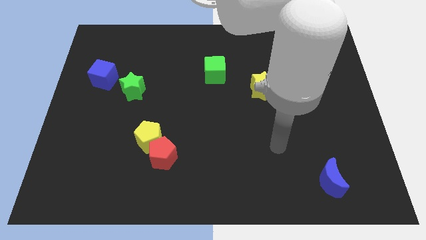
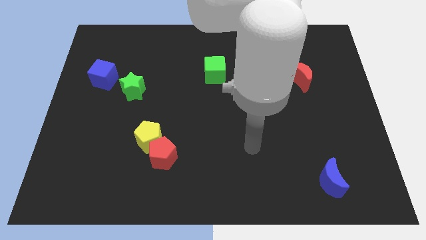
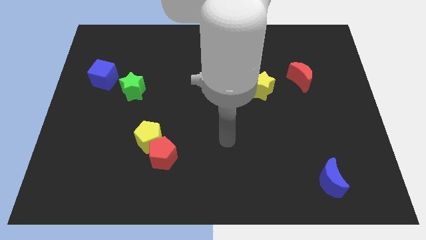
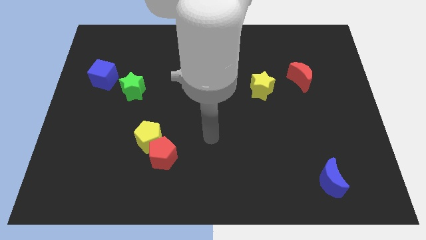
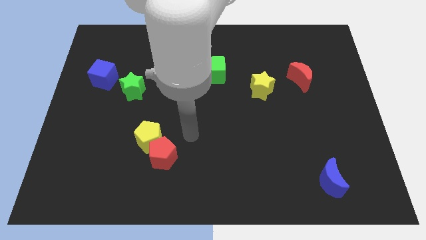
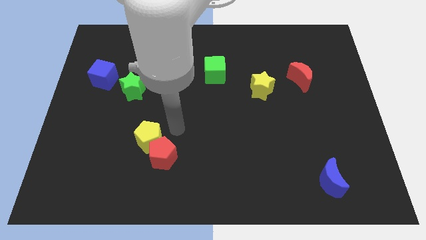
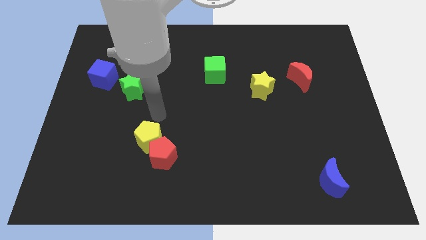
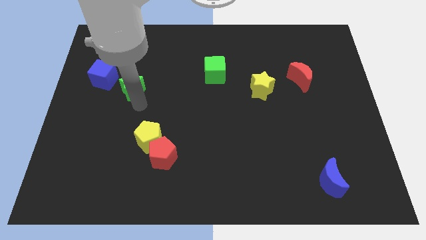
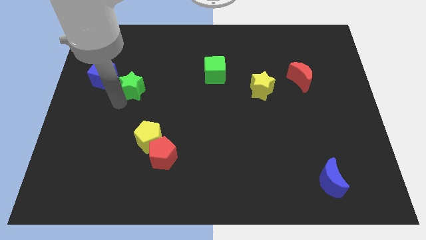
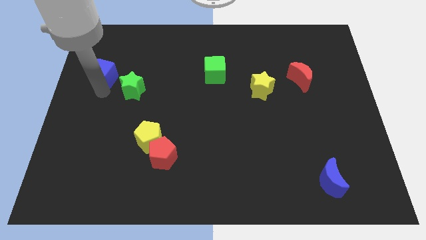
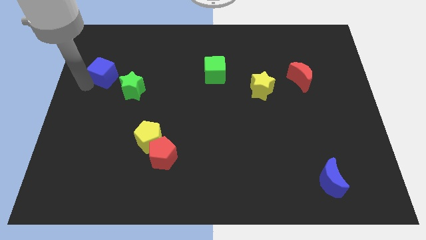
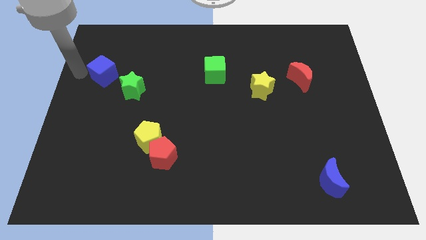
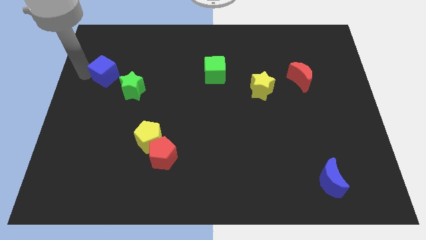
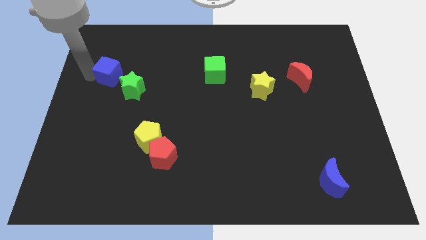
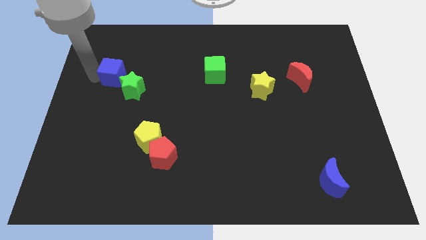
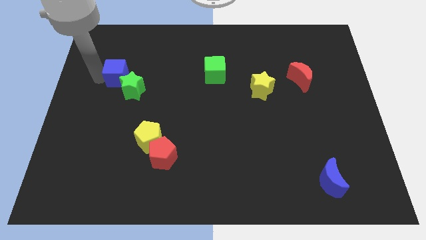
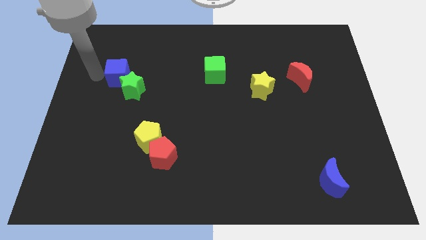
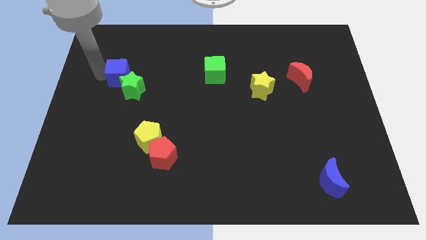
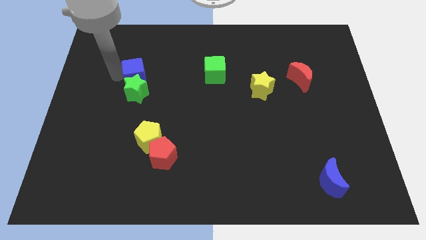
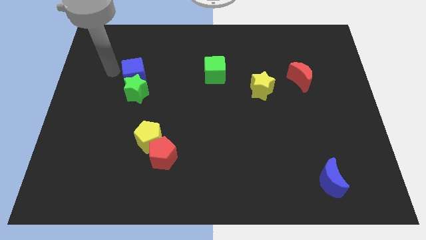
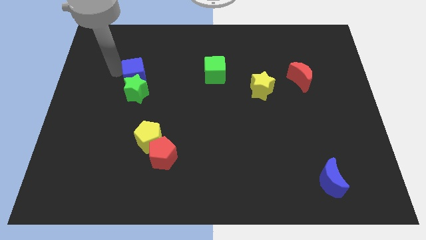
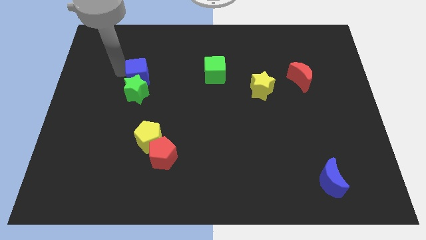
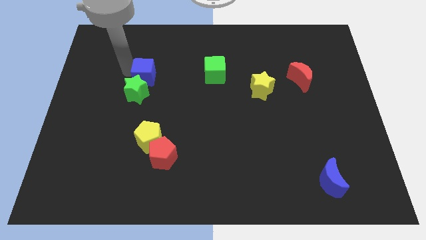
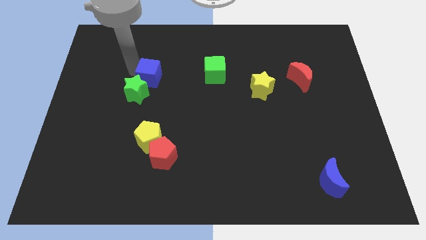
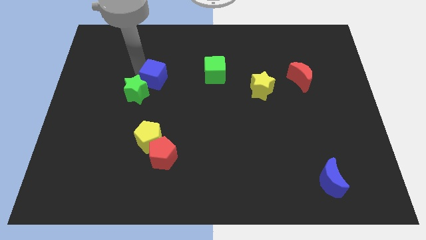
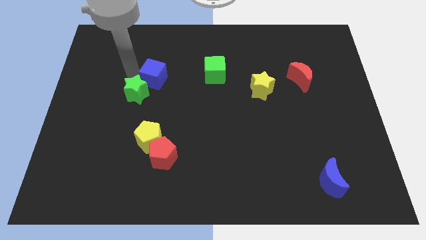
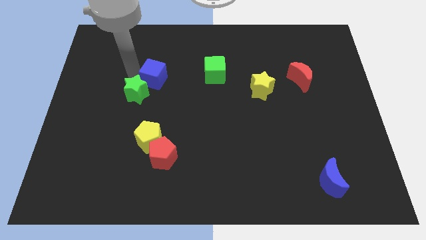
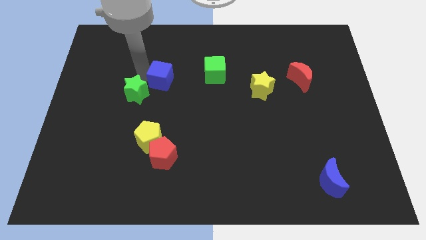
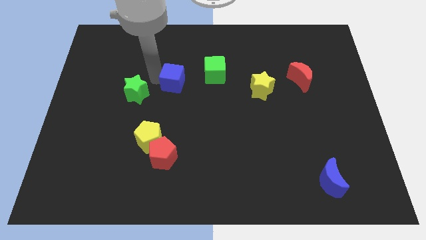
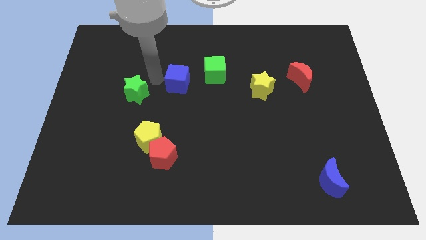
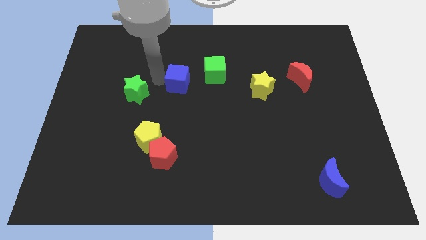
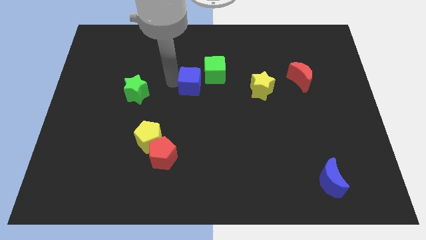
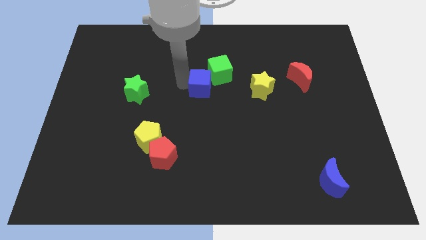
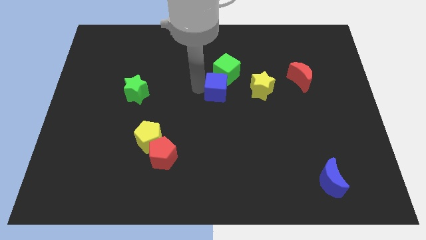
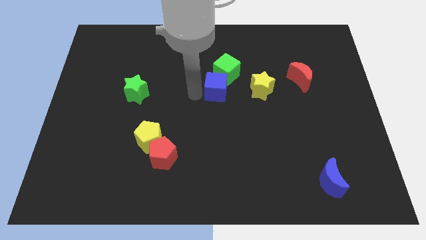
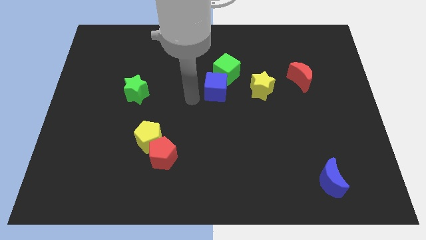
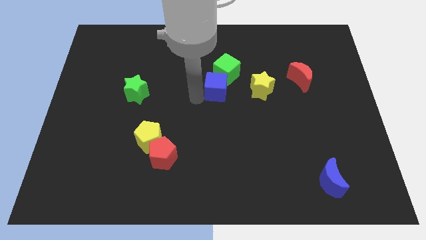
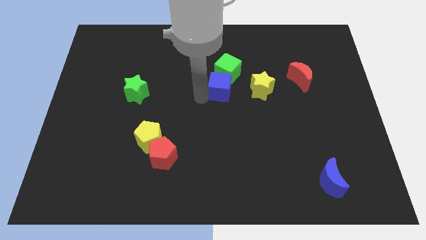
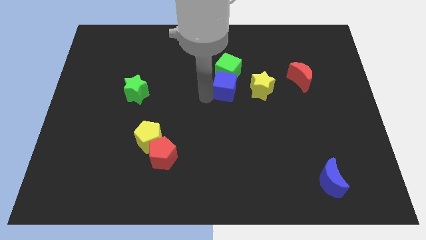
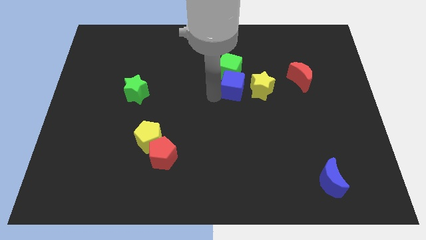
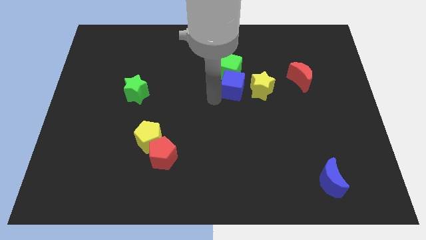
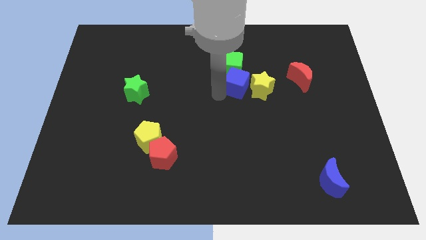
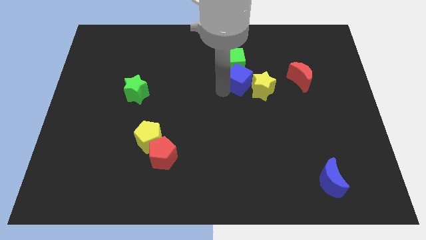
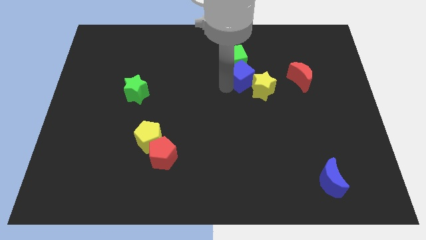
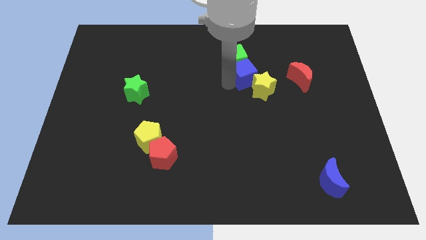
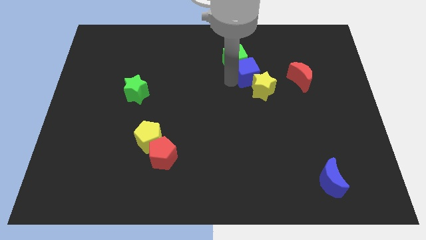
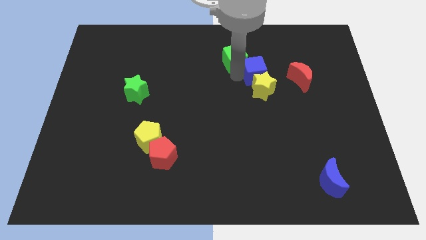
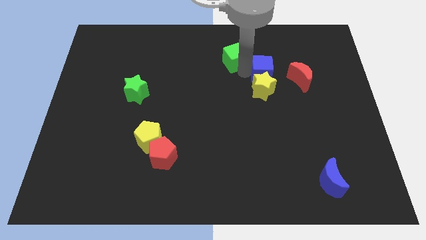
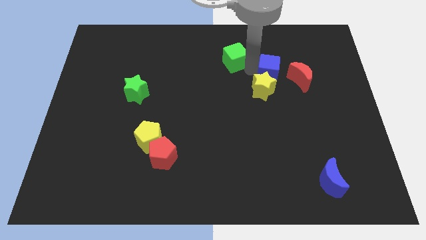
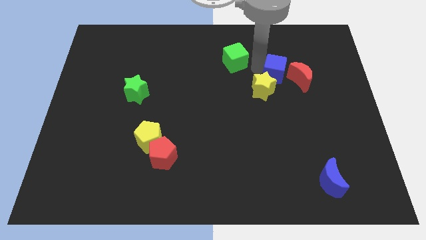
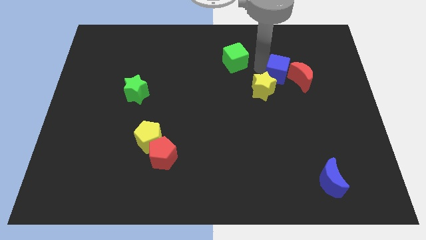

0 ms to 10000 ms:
push the blue cube to the red moon

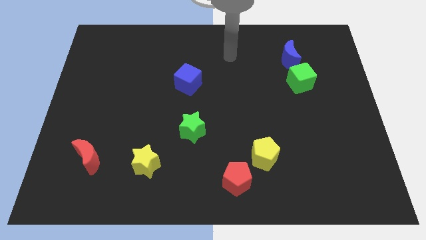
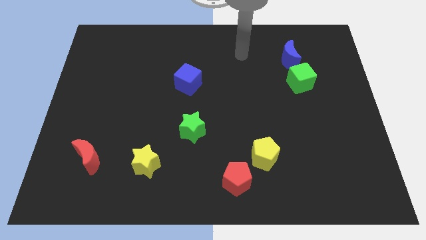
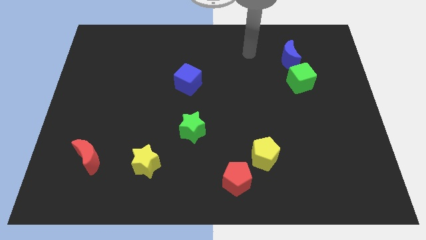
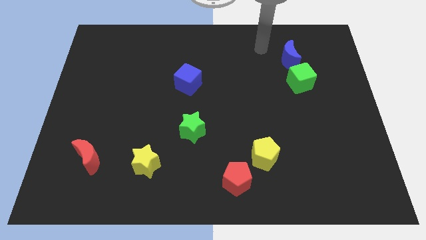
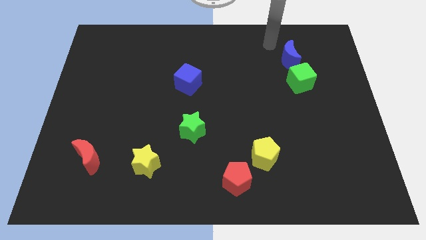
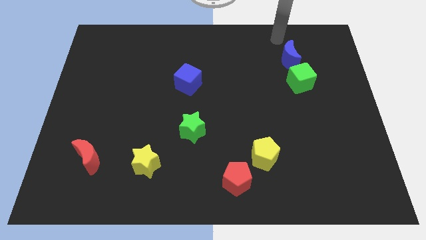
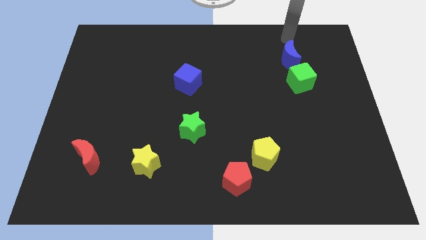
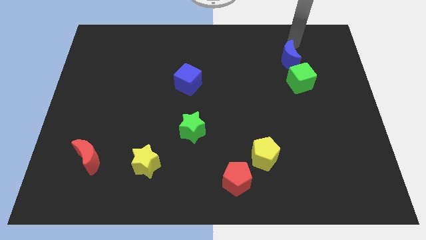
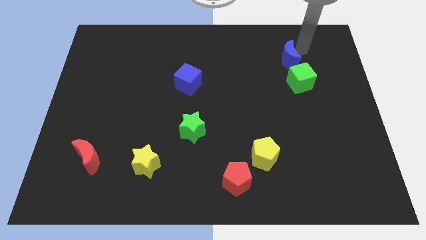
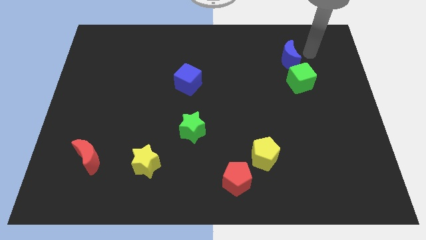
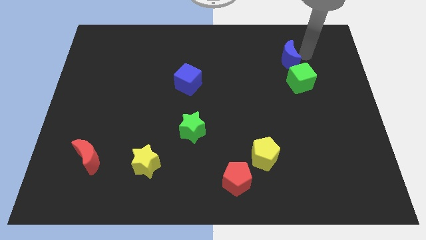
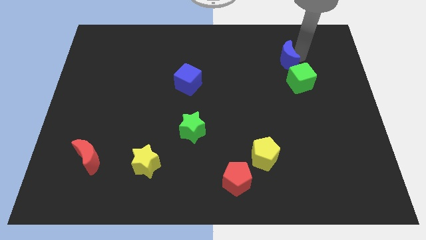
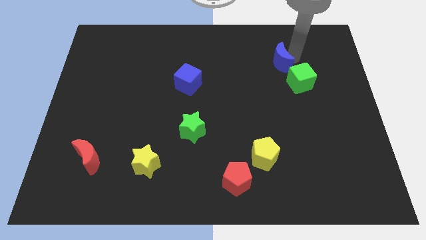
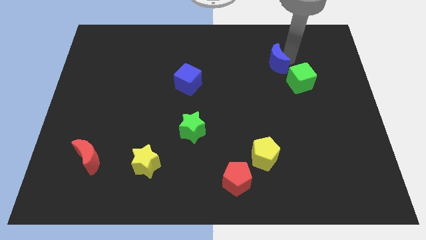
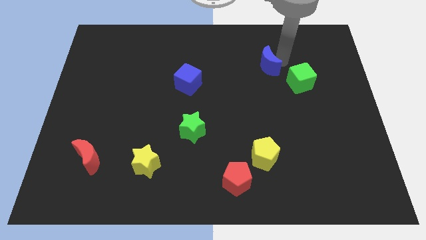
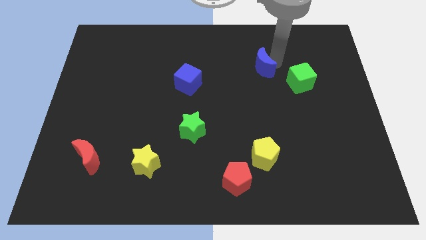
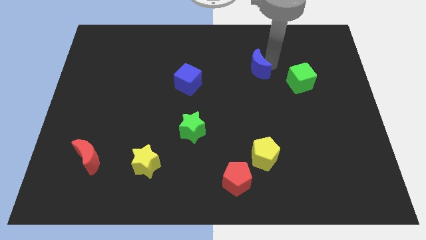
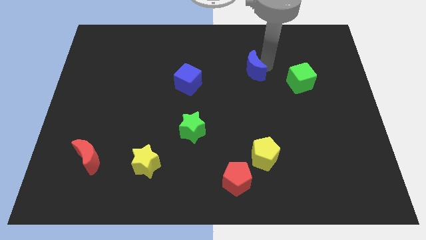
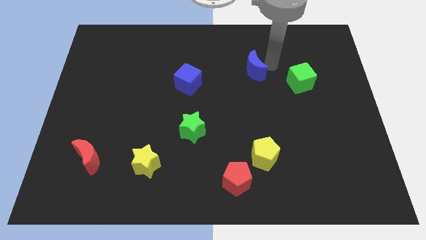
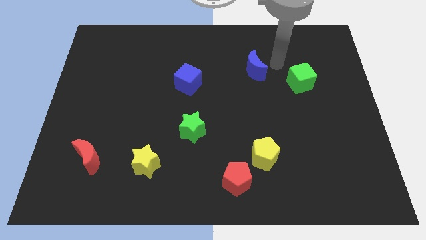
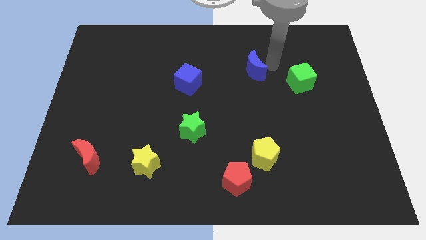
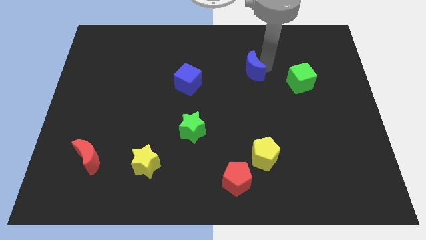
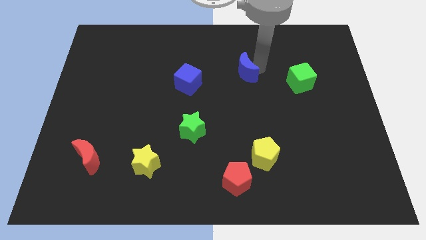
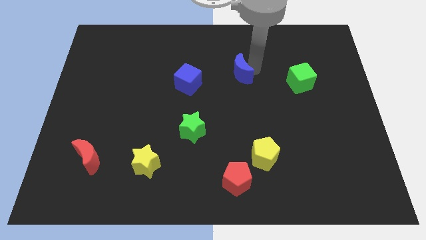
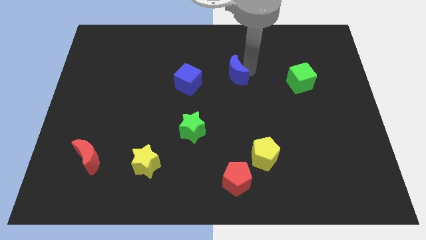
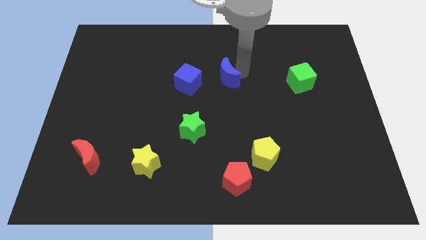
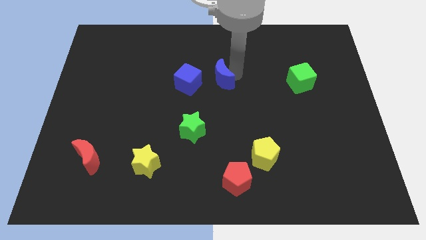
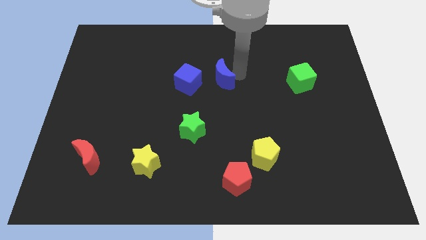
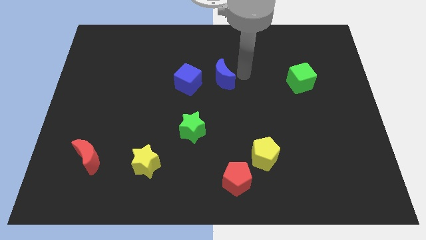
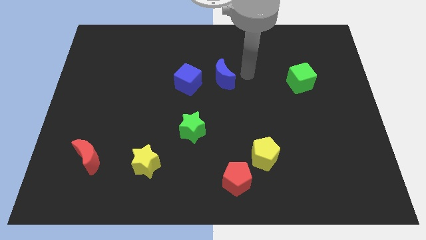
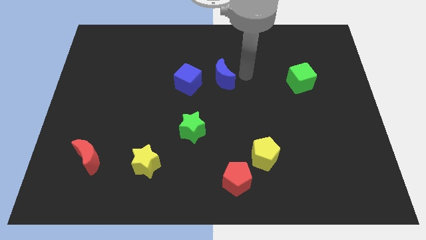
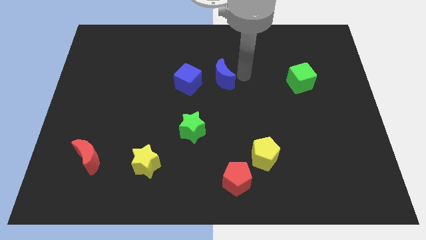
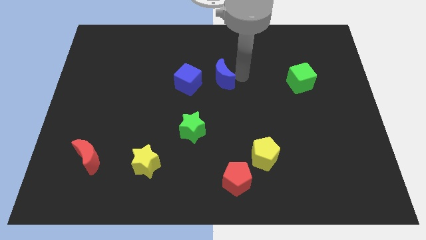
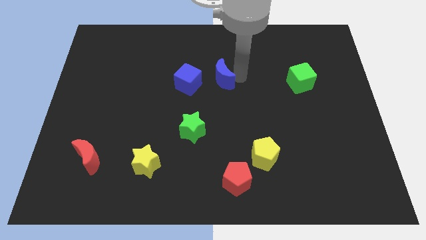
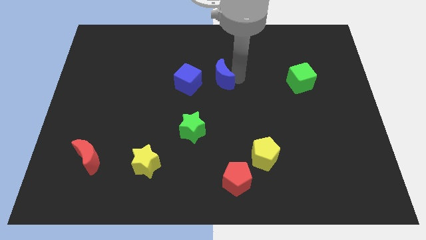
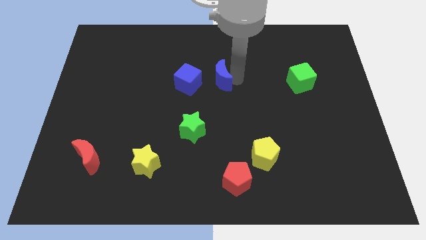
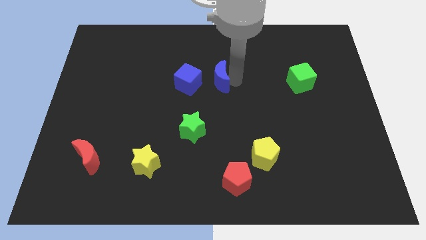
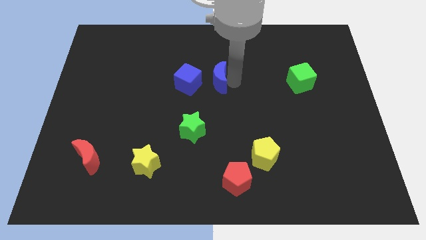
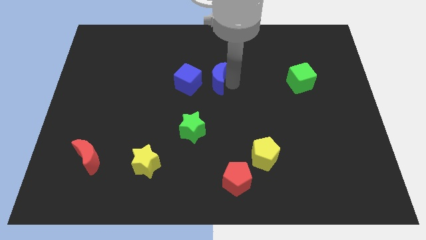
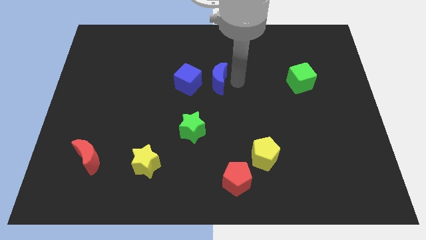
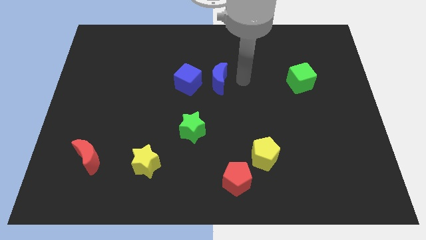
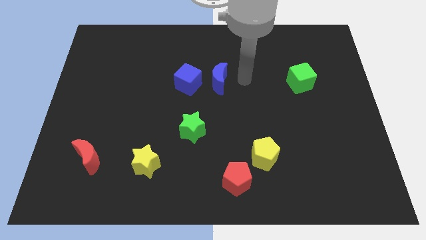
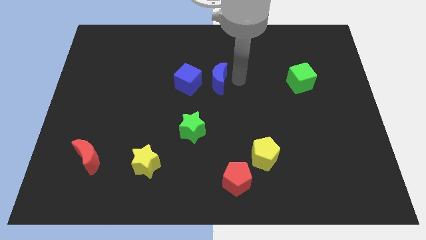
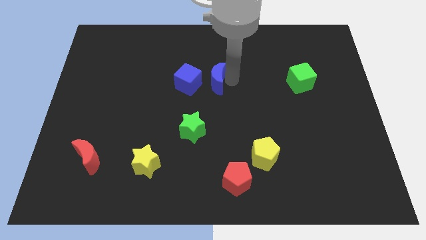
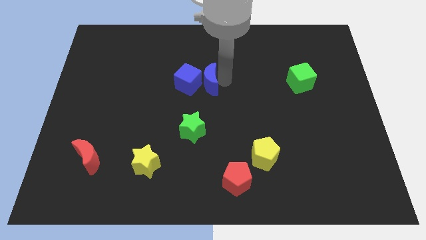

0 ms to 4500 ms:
put the blue moon close to the blue cube
